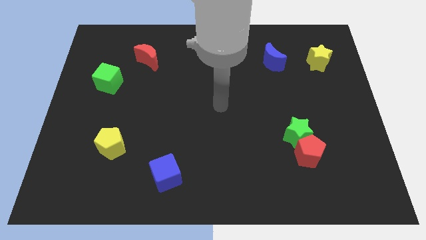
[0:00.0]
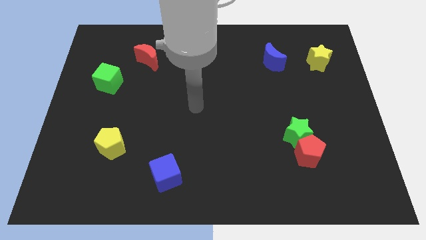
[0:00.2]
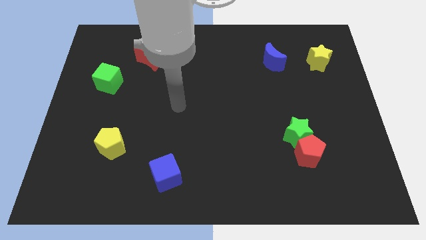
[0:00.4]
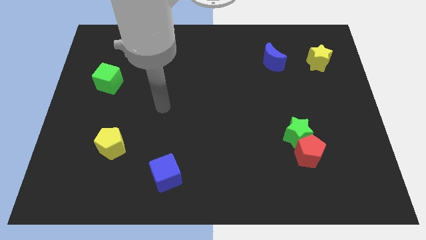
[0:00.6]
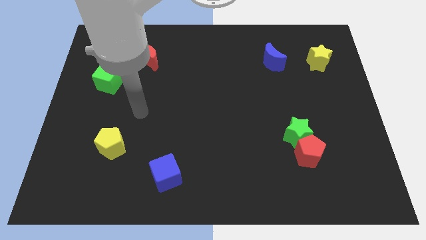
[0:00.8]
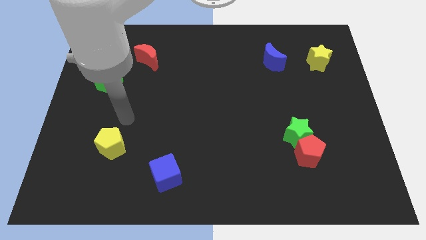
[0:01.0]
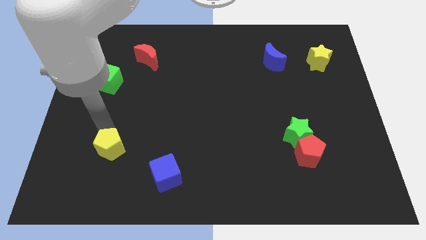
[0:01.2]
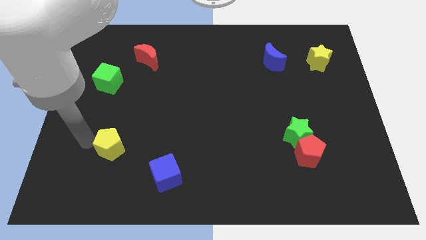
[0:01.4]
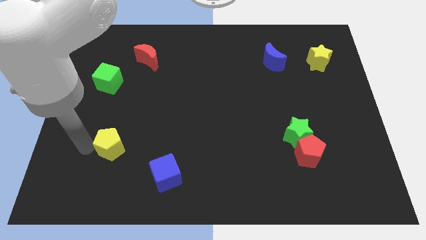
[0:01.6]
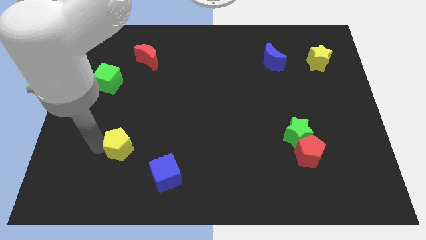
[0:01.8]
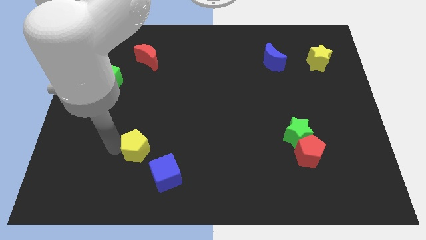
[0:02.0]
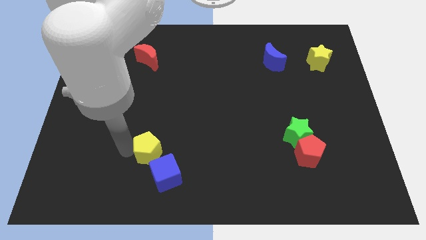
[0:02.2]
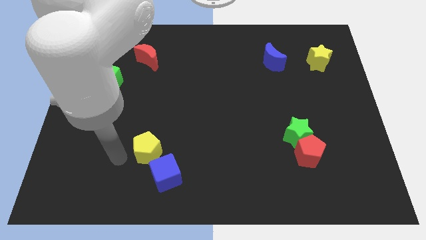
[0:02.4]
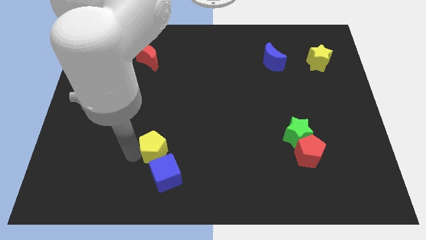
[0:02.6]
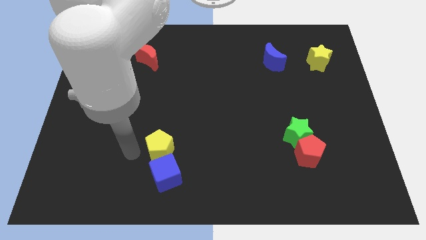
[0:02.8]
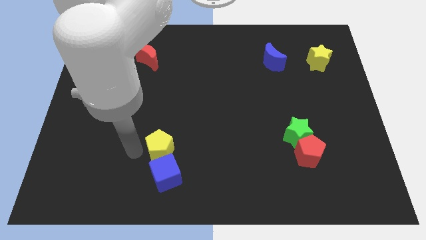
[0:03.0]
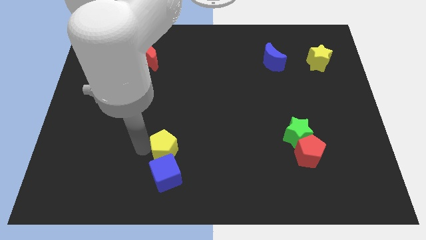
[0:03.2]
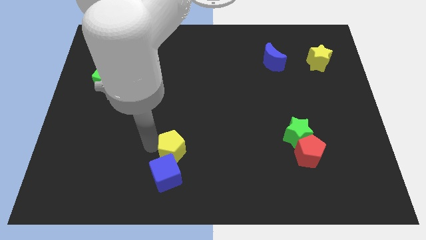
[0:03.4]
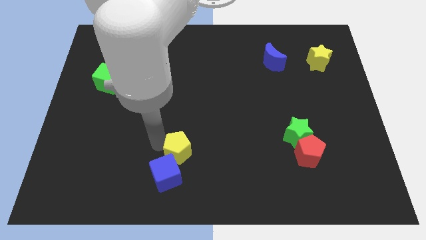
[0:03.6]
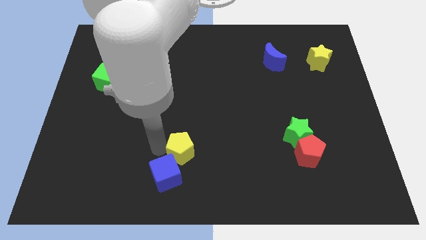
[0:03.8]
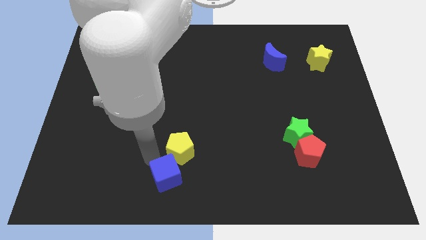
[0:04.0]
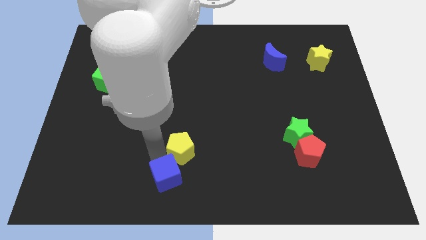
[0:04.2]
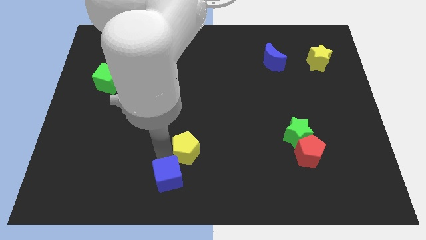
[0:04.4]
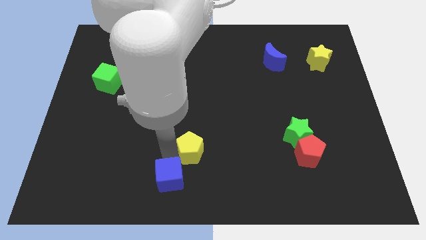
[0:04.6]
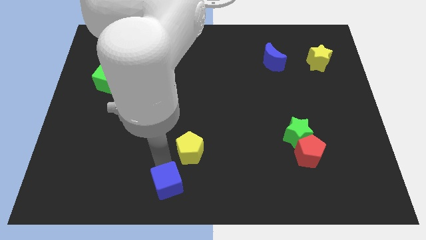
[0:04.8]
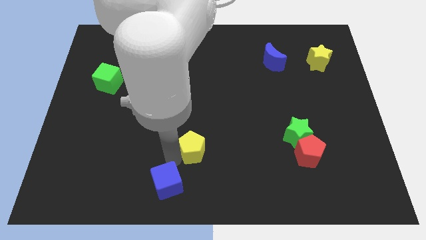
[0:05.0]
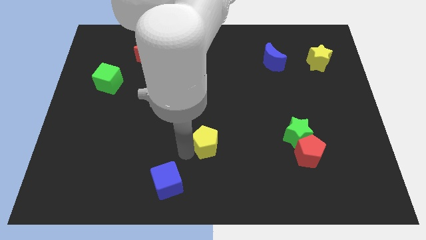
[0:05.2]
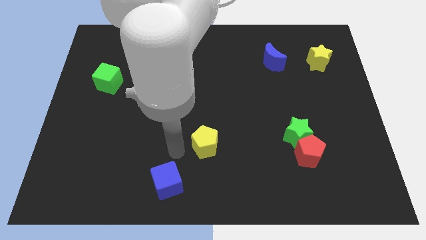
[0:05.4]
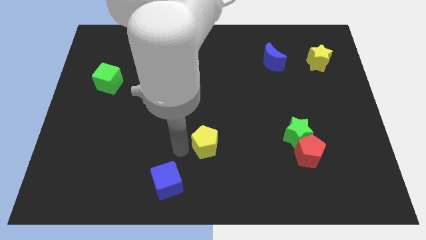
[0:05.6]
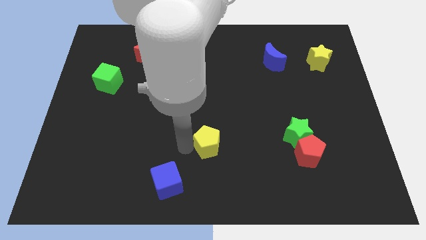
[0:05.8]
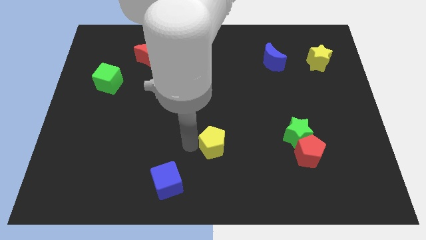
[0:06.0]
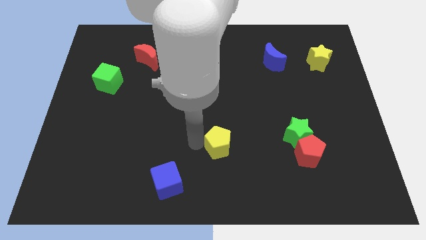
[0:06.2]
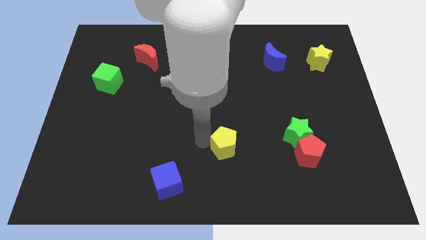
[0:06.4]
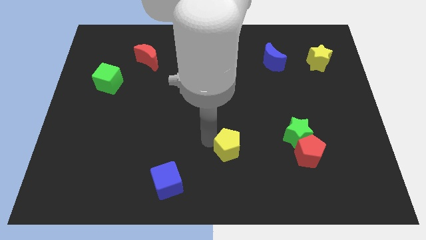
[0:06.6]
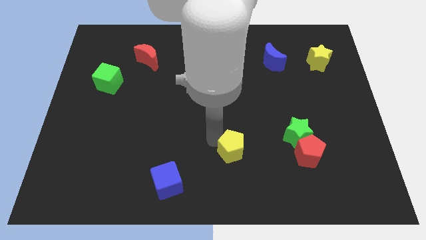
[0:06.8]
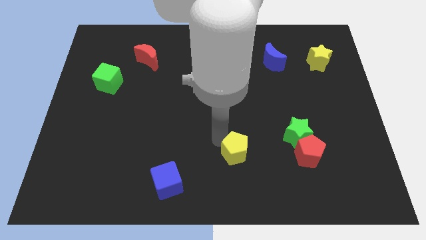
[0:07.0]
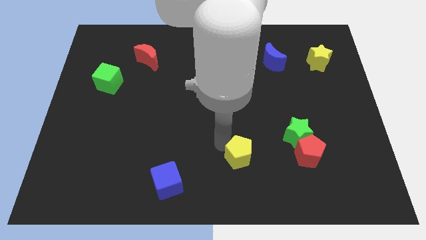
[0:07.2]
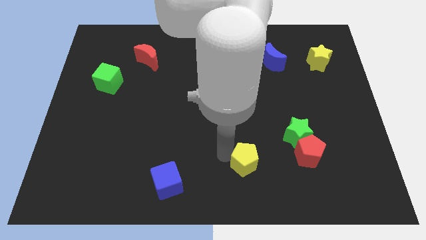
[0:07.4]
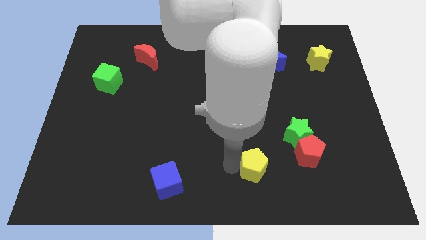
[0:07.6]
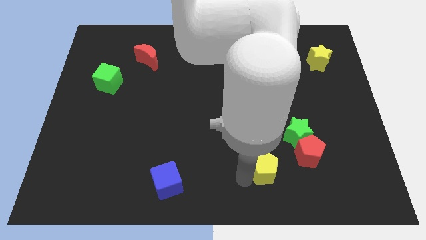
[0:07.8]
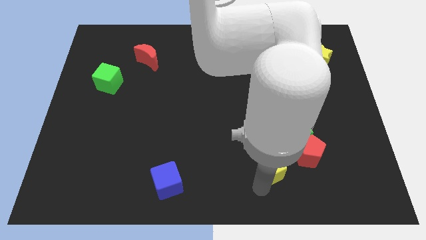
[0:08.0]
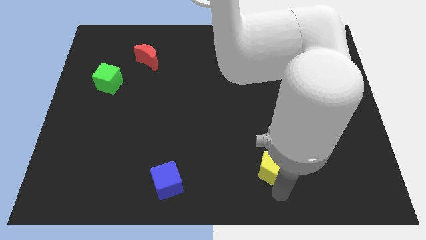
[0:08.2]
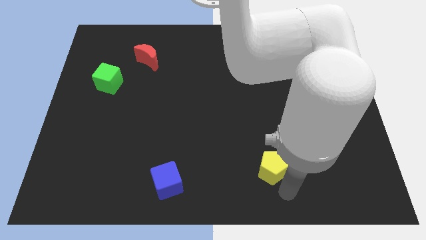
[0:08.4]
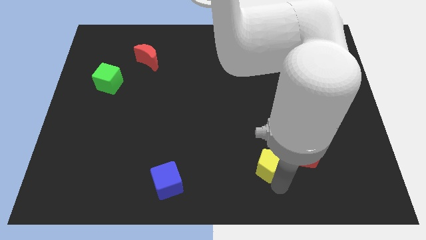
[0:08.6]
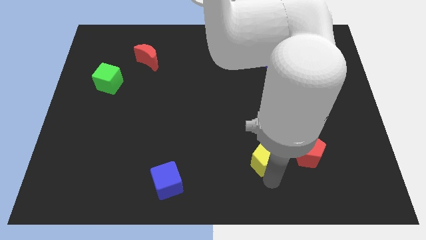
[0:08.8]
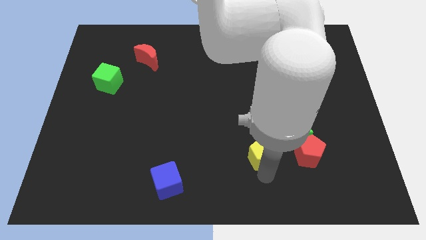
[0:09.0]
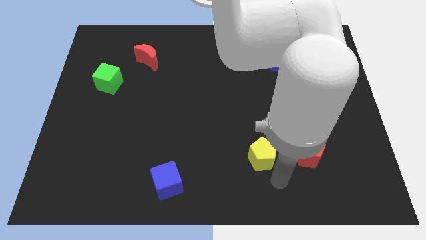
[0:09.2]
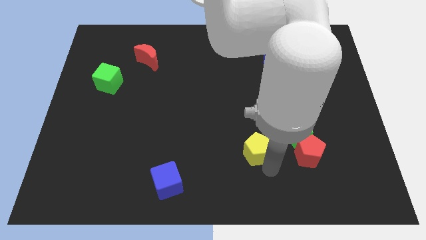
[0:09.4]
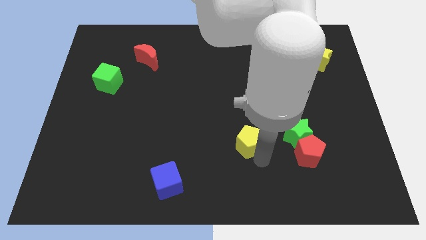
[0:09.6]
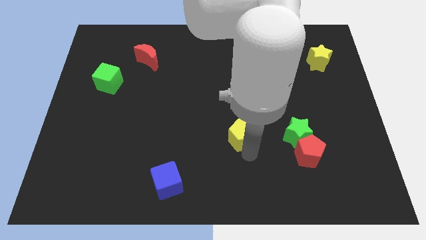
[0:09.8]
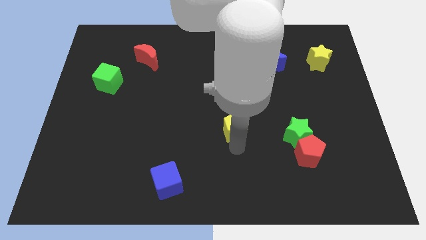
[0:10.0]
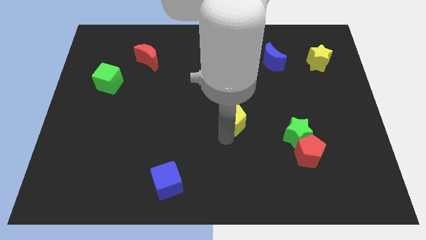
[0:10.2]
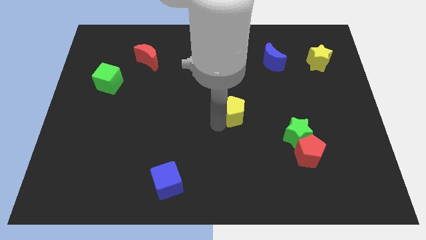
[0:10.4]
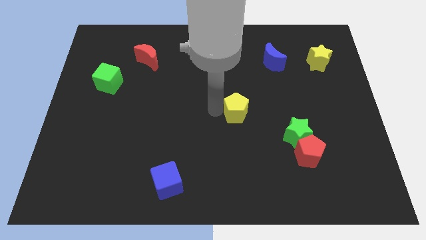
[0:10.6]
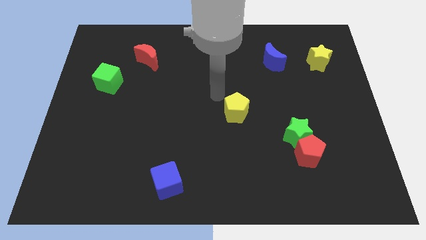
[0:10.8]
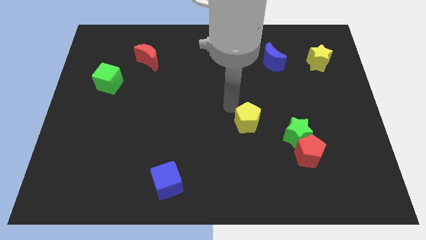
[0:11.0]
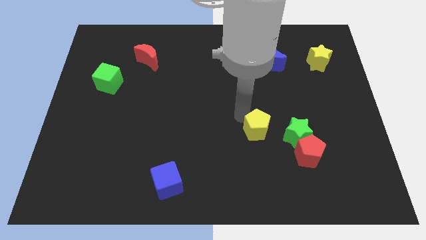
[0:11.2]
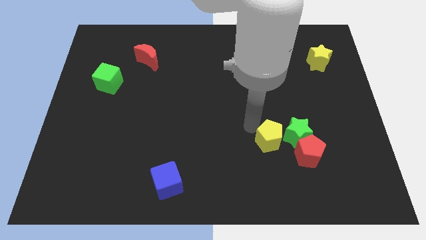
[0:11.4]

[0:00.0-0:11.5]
push the yellow pentagon next to the green star

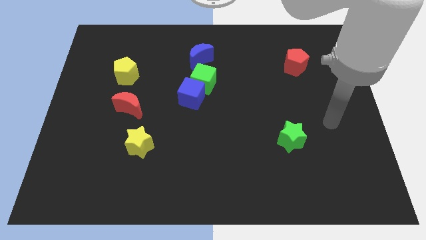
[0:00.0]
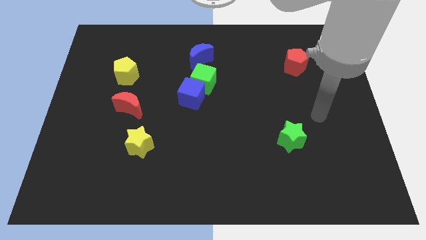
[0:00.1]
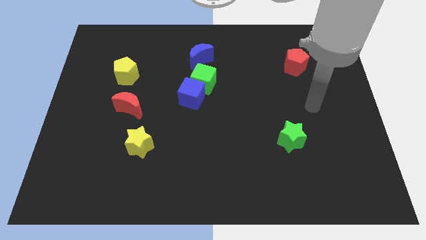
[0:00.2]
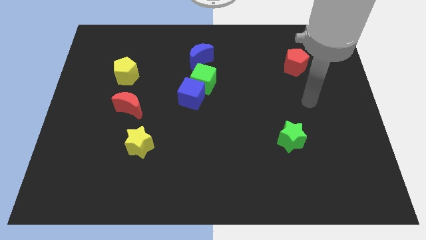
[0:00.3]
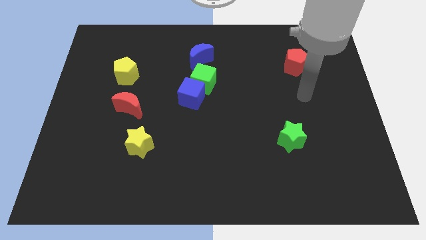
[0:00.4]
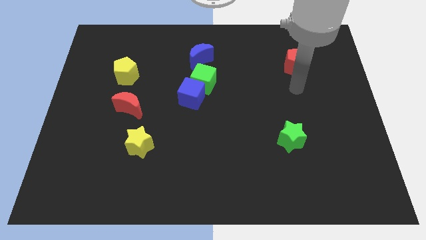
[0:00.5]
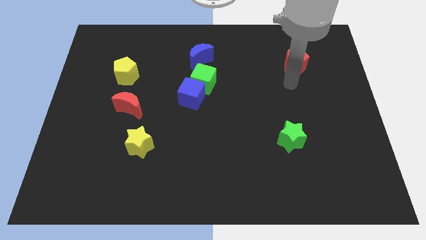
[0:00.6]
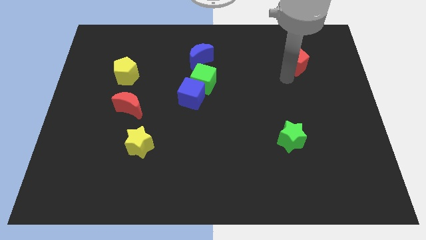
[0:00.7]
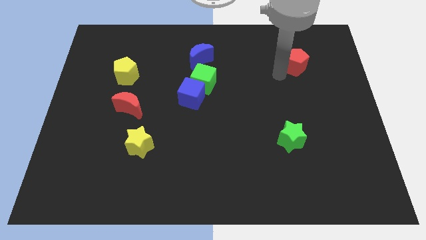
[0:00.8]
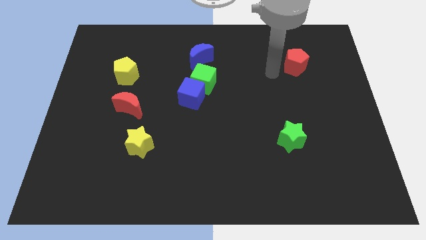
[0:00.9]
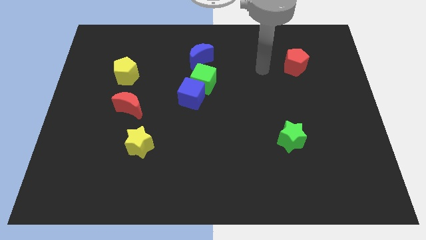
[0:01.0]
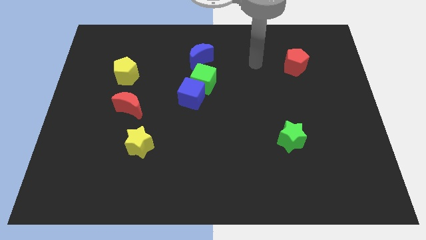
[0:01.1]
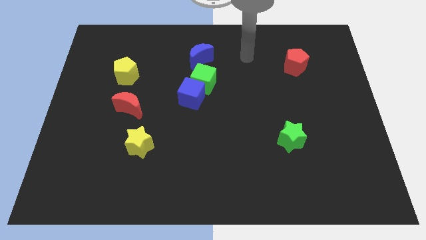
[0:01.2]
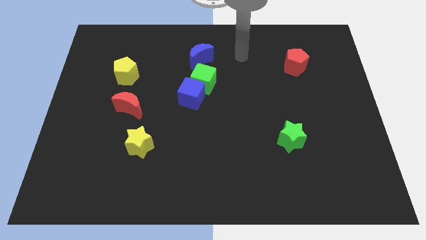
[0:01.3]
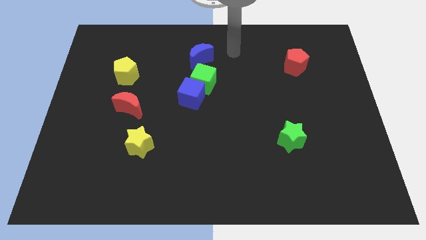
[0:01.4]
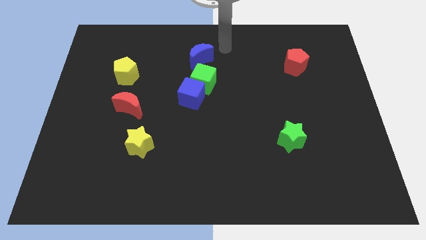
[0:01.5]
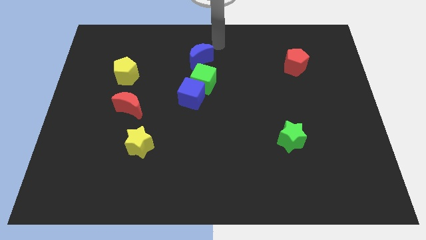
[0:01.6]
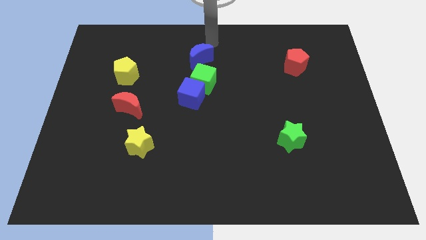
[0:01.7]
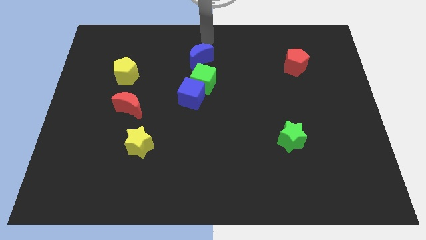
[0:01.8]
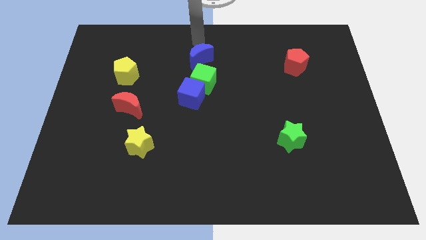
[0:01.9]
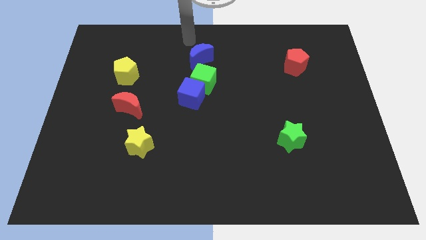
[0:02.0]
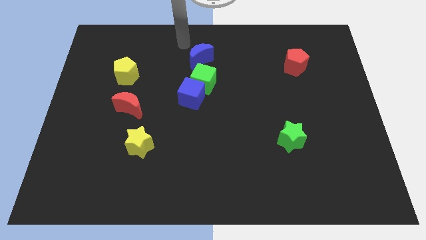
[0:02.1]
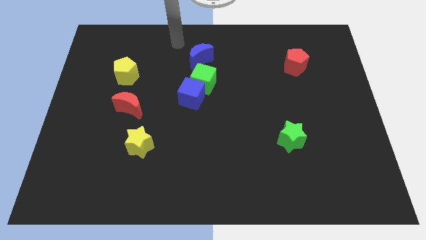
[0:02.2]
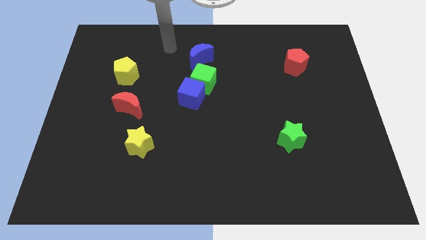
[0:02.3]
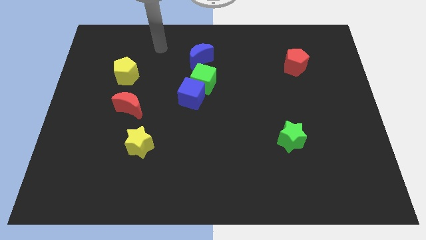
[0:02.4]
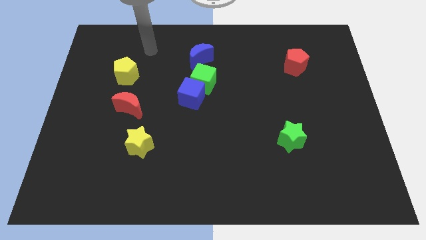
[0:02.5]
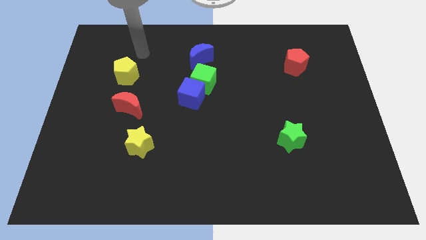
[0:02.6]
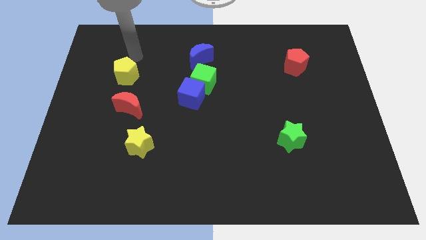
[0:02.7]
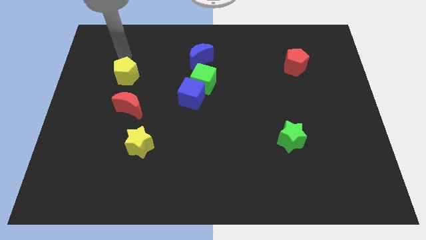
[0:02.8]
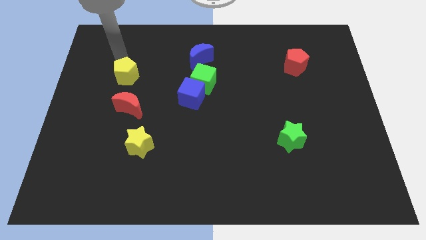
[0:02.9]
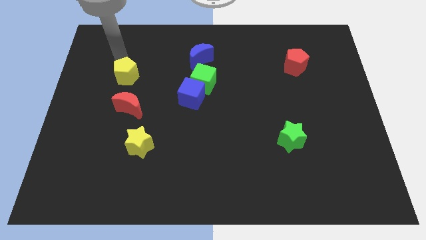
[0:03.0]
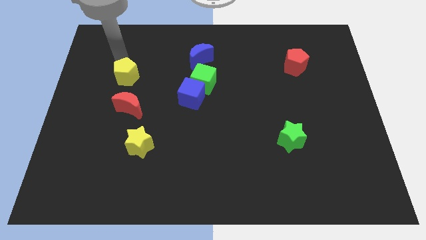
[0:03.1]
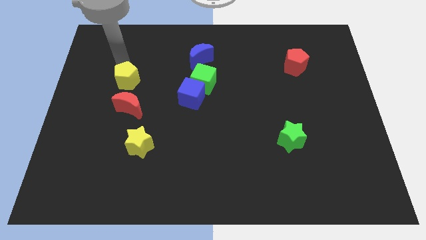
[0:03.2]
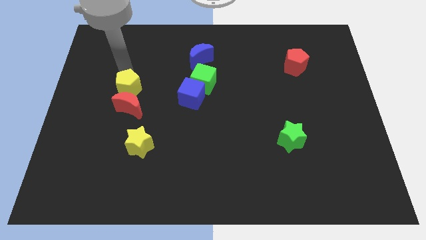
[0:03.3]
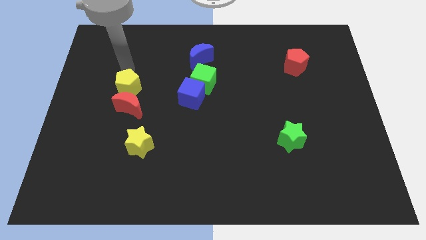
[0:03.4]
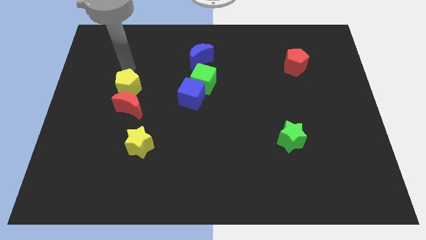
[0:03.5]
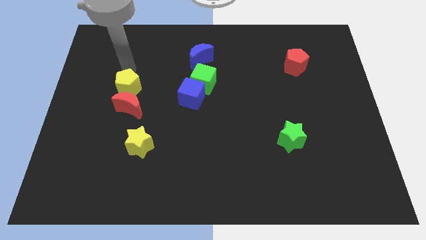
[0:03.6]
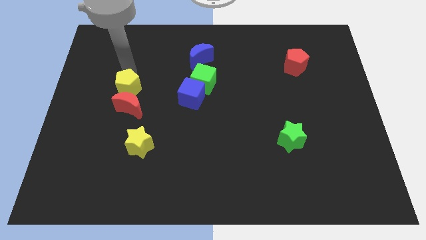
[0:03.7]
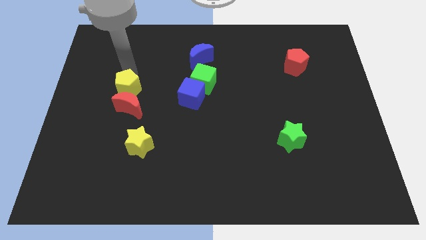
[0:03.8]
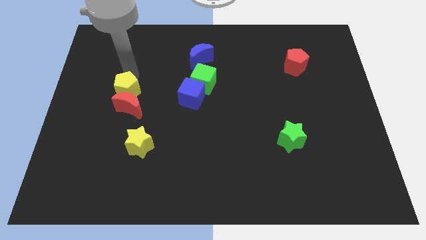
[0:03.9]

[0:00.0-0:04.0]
push the yellow pentagon towards the red moon
